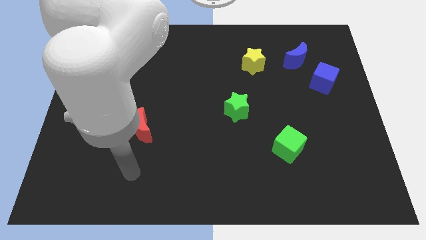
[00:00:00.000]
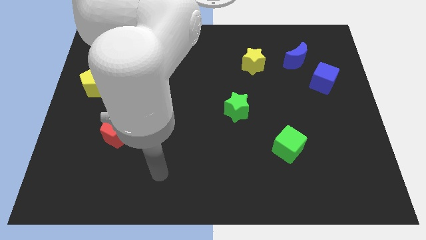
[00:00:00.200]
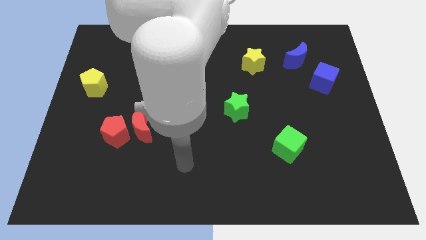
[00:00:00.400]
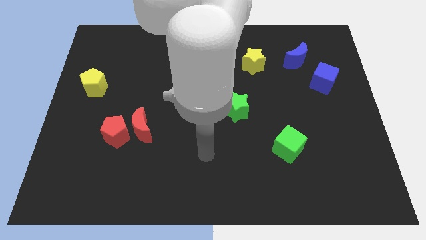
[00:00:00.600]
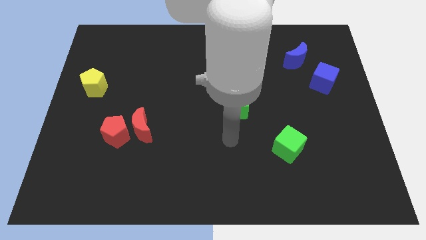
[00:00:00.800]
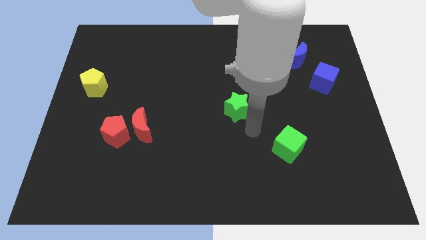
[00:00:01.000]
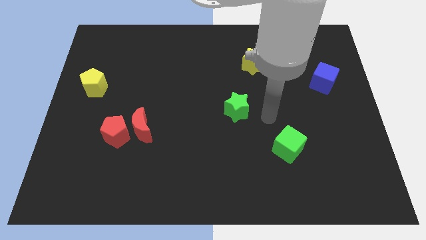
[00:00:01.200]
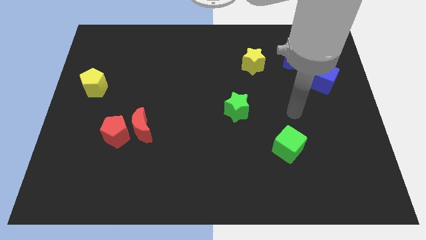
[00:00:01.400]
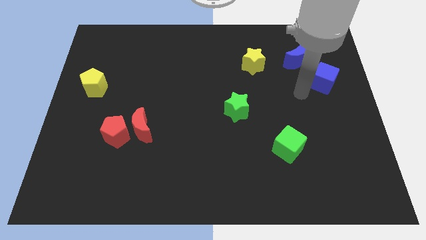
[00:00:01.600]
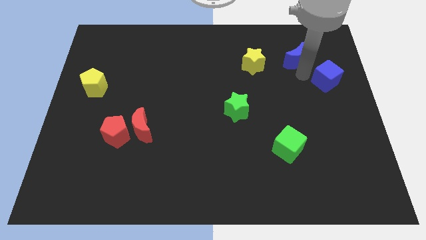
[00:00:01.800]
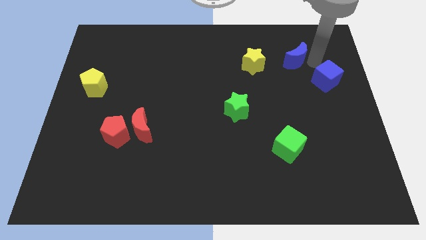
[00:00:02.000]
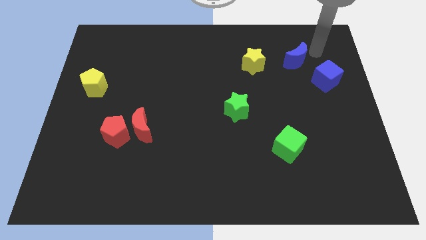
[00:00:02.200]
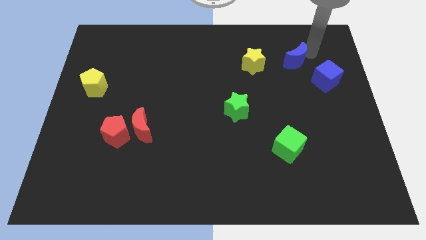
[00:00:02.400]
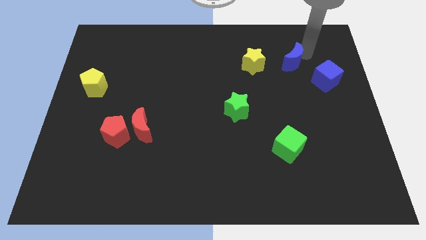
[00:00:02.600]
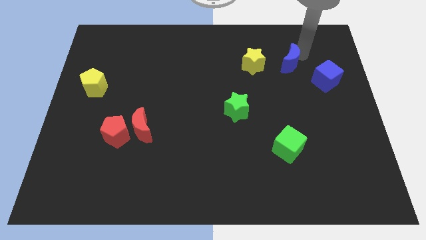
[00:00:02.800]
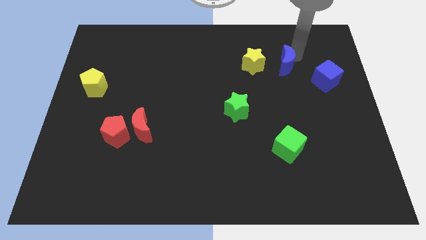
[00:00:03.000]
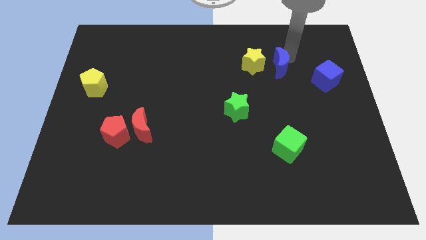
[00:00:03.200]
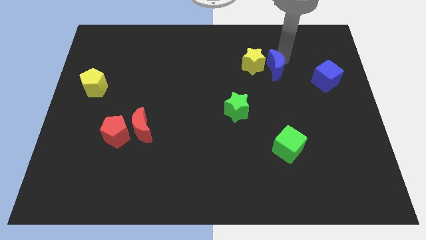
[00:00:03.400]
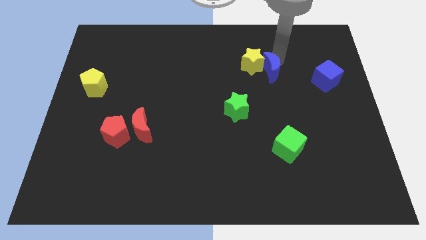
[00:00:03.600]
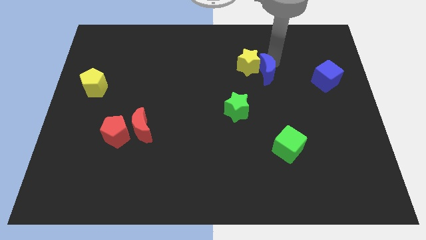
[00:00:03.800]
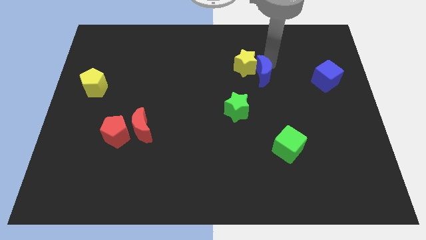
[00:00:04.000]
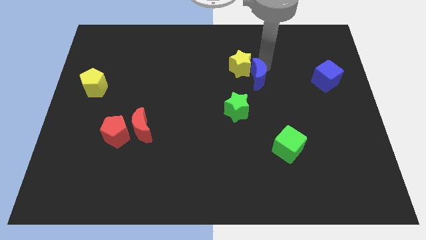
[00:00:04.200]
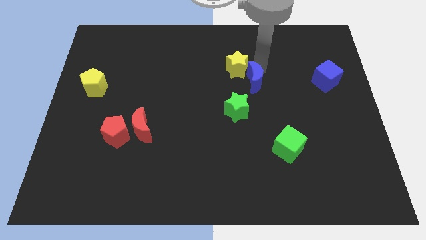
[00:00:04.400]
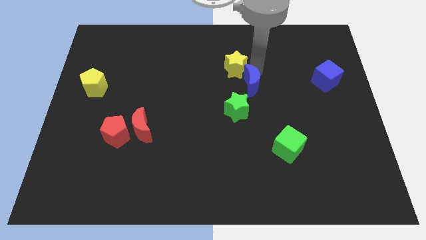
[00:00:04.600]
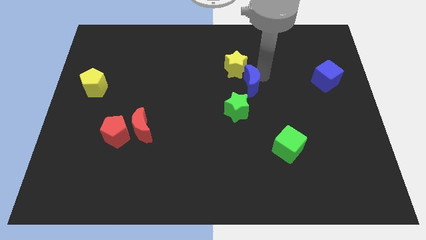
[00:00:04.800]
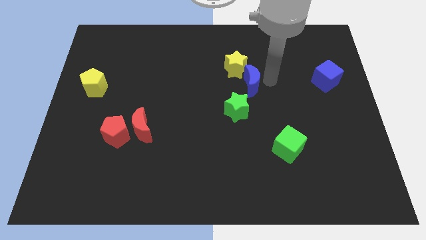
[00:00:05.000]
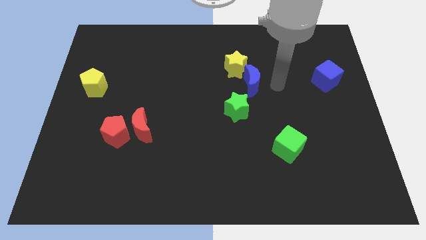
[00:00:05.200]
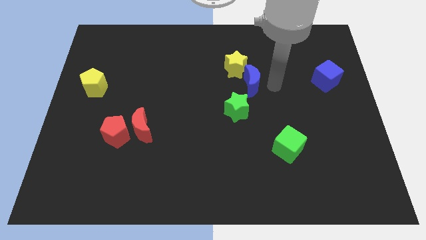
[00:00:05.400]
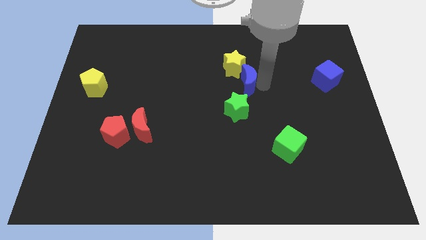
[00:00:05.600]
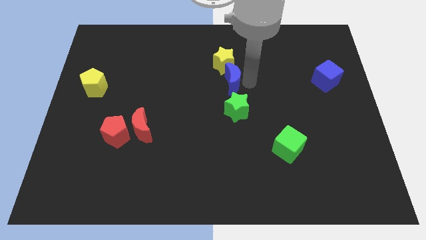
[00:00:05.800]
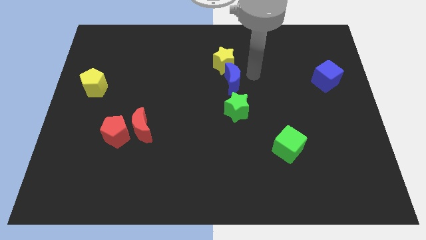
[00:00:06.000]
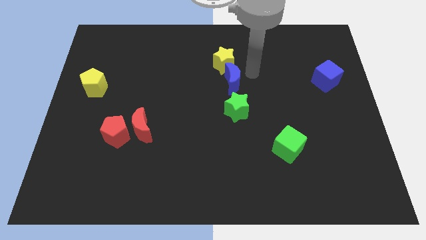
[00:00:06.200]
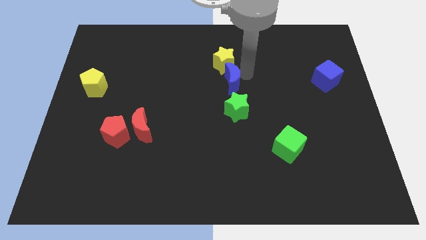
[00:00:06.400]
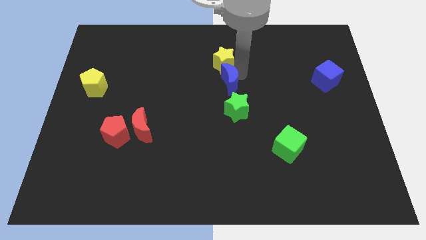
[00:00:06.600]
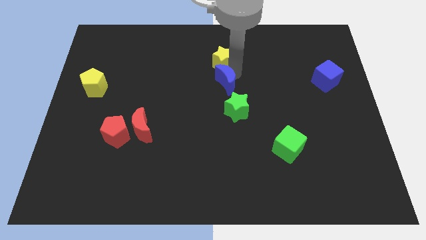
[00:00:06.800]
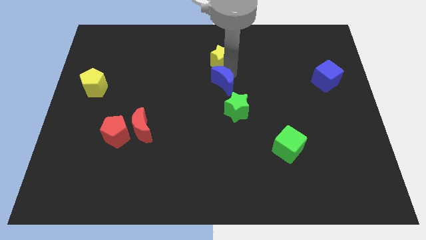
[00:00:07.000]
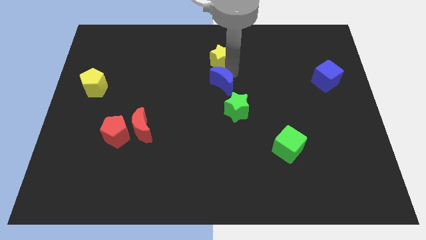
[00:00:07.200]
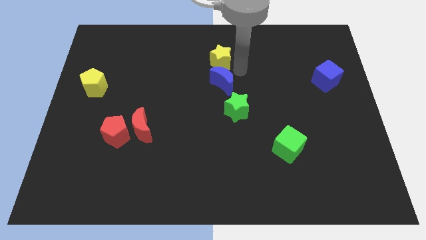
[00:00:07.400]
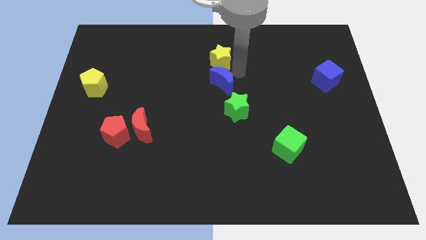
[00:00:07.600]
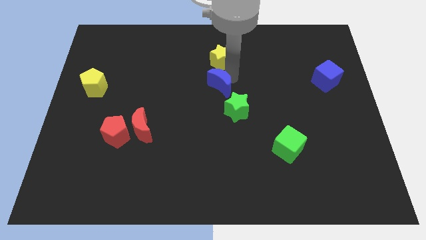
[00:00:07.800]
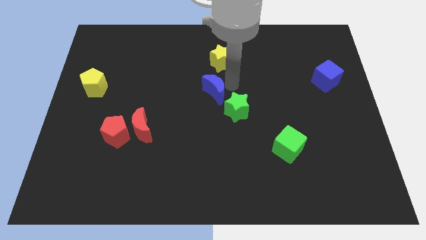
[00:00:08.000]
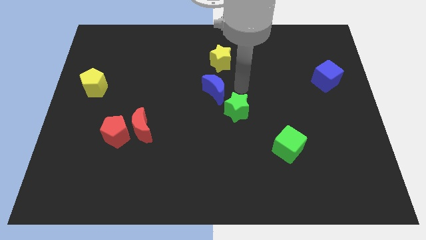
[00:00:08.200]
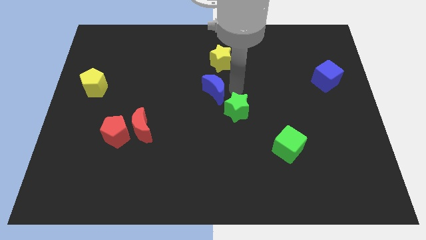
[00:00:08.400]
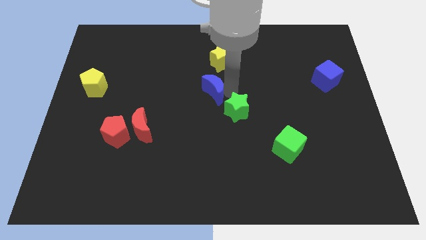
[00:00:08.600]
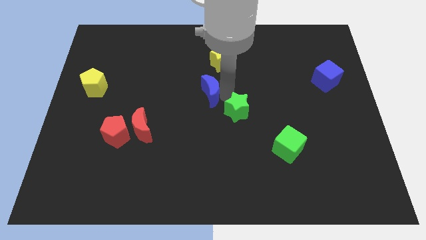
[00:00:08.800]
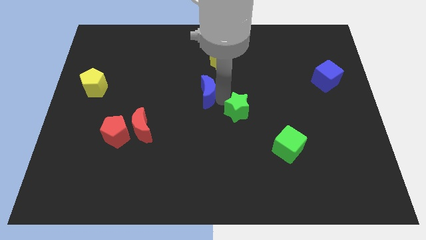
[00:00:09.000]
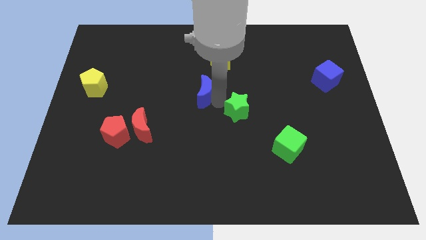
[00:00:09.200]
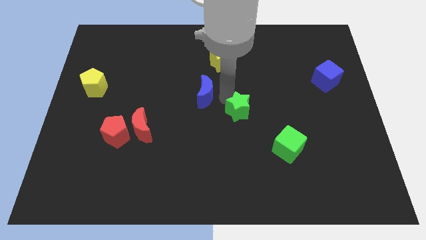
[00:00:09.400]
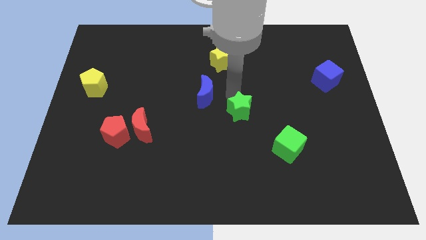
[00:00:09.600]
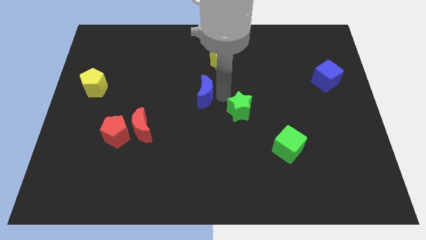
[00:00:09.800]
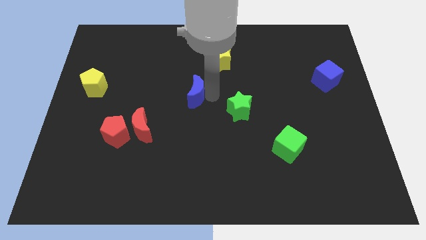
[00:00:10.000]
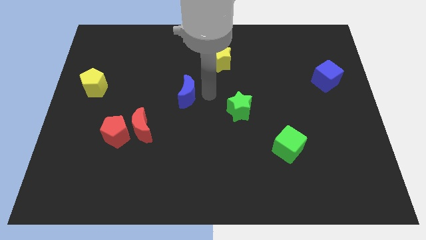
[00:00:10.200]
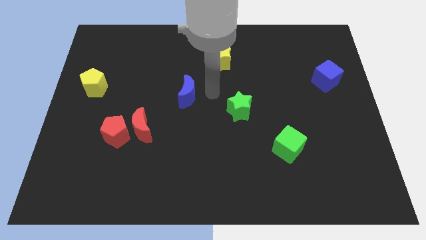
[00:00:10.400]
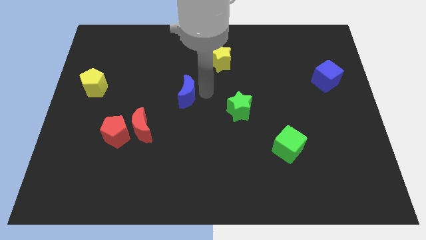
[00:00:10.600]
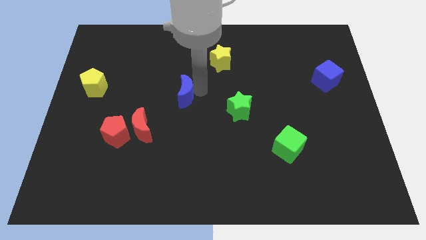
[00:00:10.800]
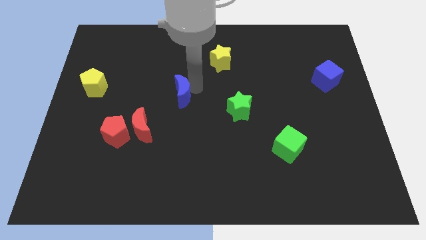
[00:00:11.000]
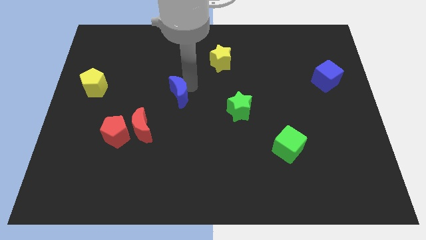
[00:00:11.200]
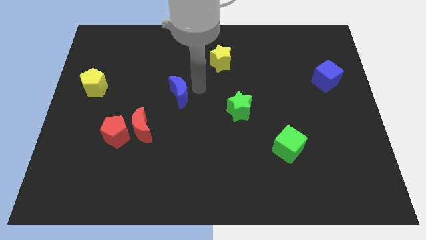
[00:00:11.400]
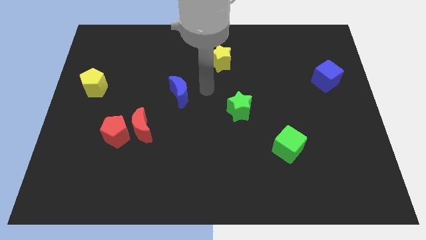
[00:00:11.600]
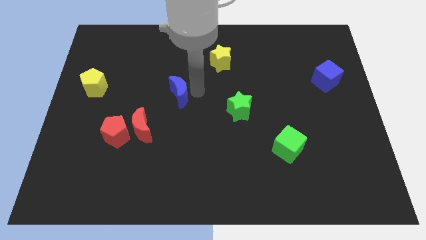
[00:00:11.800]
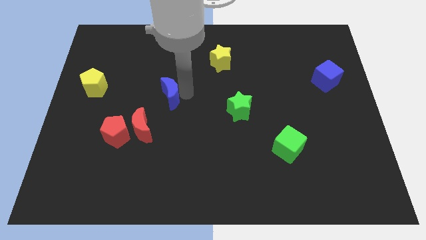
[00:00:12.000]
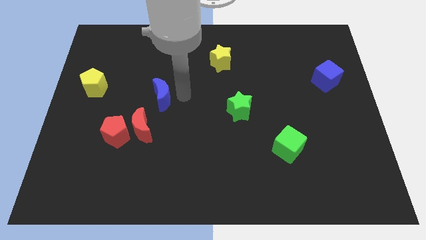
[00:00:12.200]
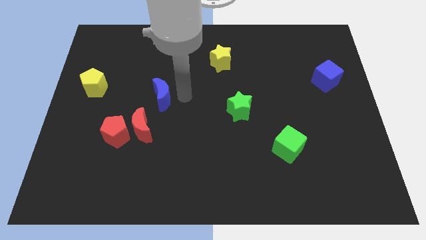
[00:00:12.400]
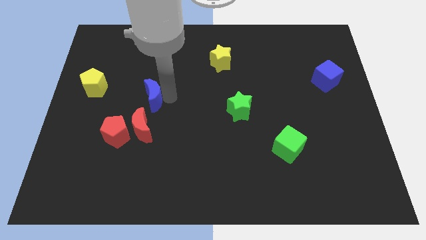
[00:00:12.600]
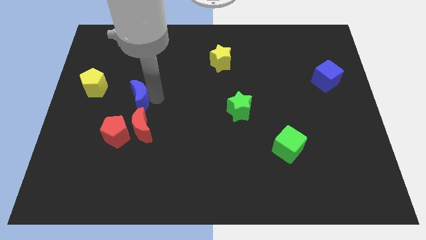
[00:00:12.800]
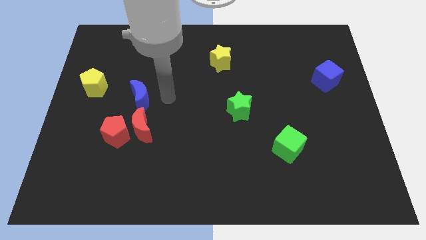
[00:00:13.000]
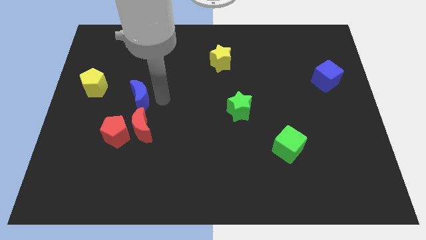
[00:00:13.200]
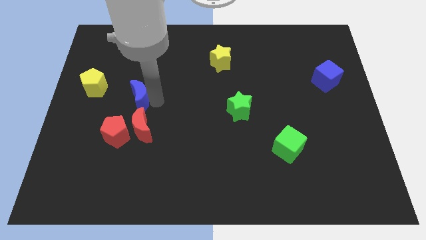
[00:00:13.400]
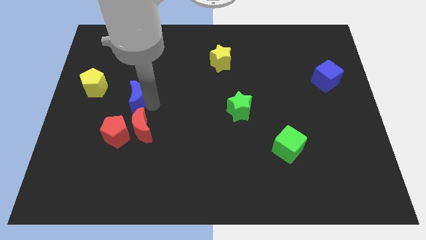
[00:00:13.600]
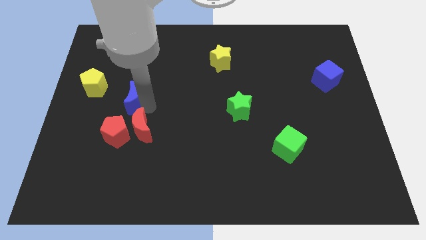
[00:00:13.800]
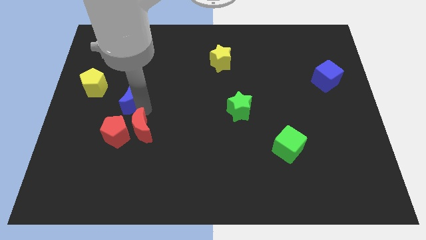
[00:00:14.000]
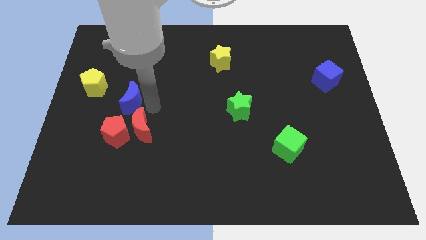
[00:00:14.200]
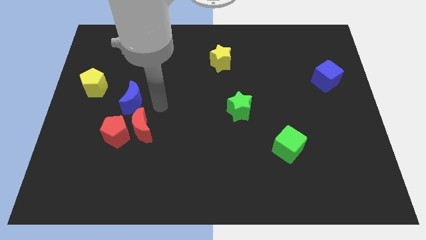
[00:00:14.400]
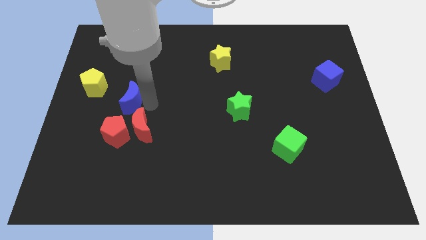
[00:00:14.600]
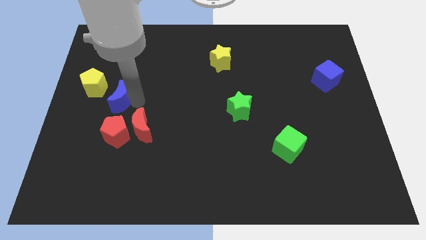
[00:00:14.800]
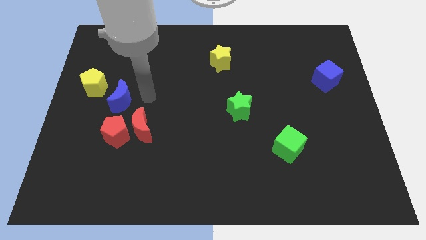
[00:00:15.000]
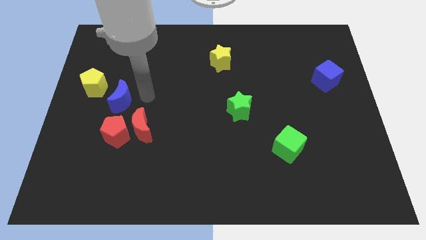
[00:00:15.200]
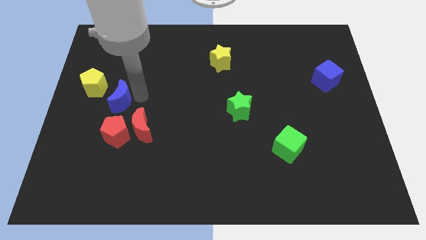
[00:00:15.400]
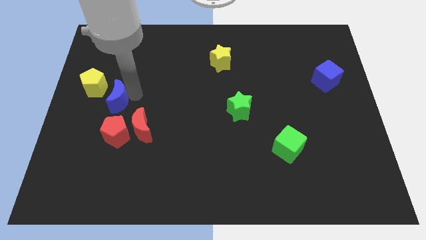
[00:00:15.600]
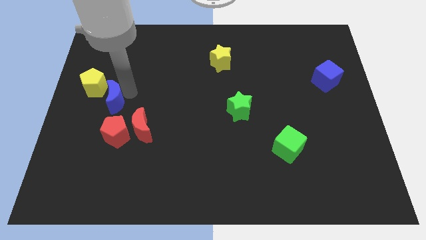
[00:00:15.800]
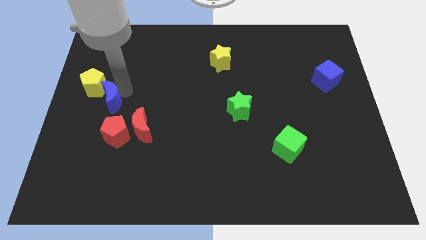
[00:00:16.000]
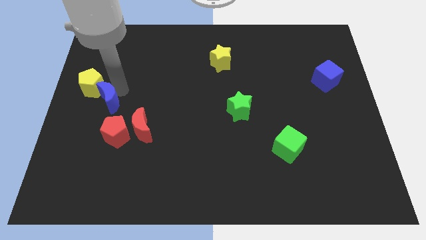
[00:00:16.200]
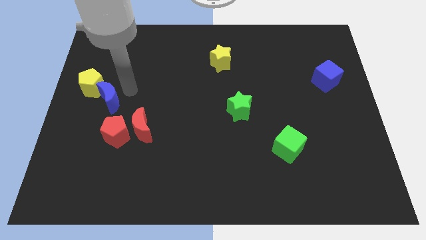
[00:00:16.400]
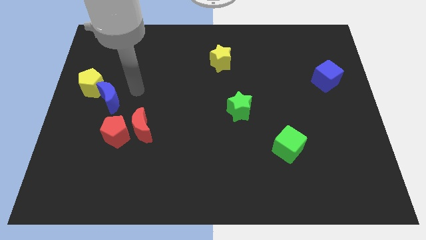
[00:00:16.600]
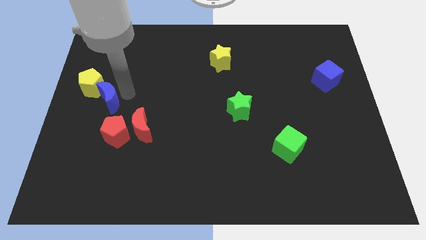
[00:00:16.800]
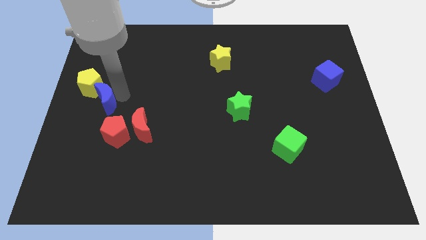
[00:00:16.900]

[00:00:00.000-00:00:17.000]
slide the blue moon to the left side of the board
